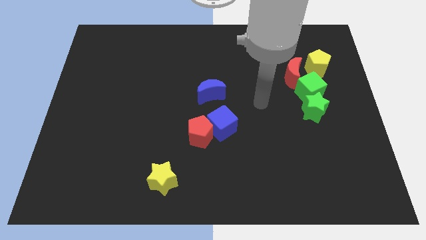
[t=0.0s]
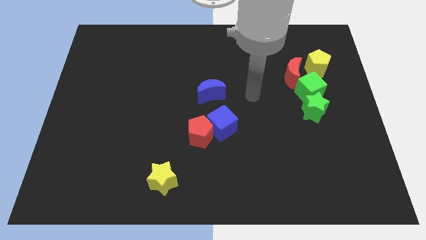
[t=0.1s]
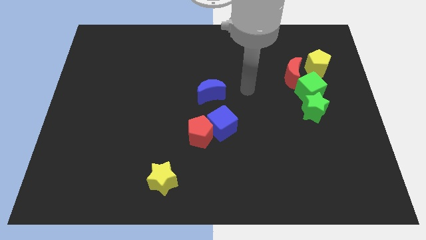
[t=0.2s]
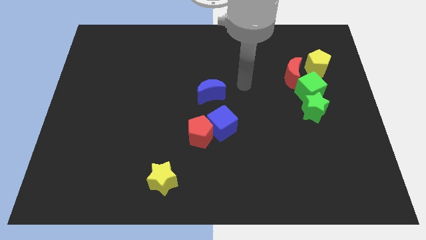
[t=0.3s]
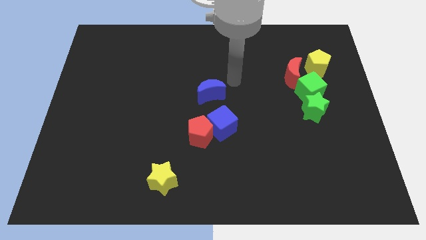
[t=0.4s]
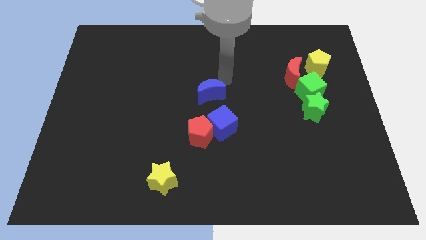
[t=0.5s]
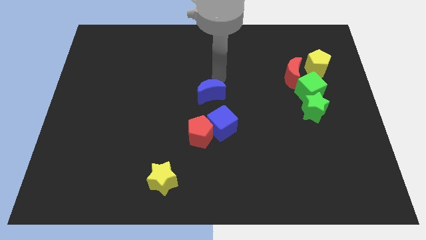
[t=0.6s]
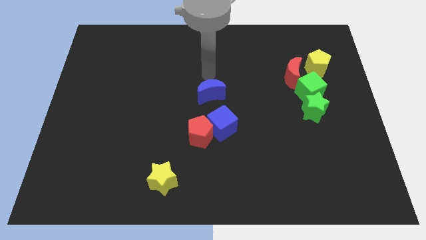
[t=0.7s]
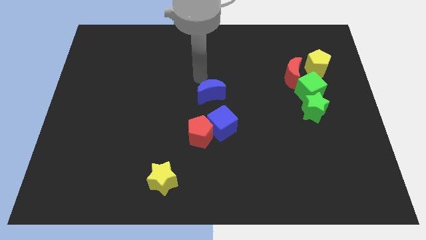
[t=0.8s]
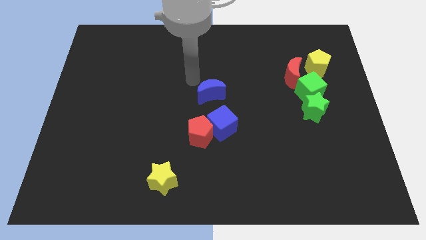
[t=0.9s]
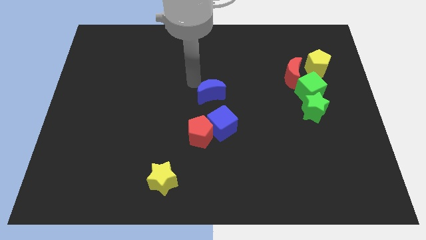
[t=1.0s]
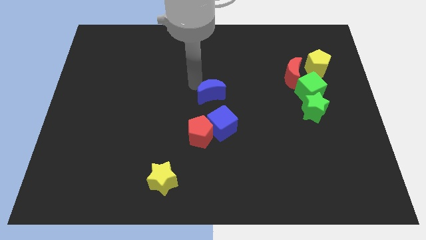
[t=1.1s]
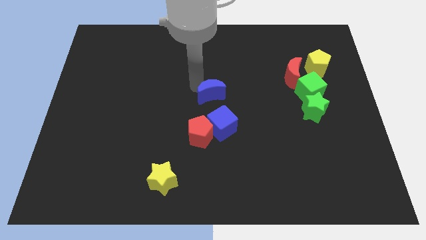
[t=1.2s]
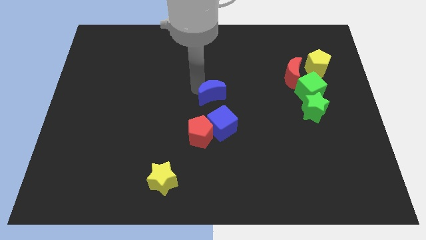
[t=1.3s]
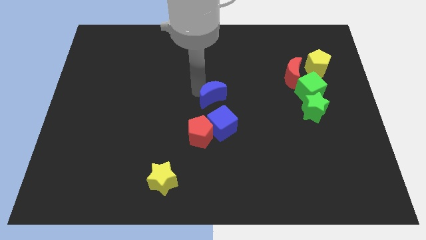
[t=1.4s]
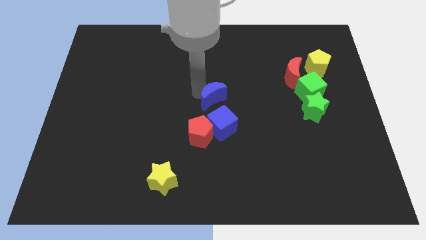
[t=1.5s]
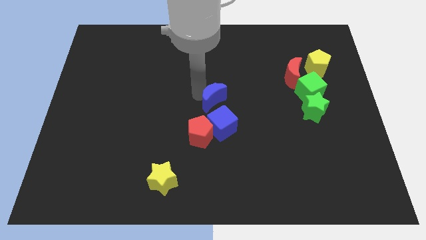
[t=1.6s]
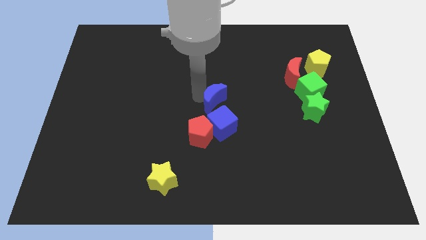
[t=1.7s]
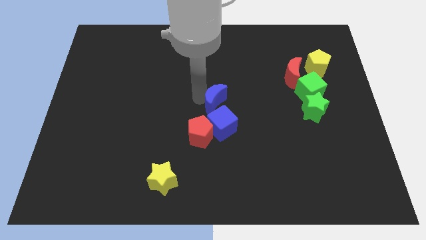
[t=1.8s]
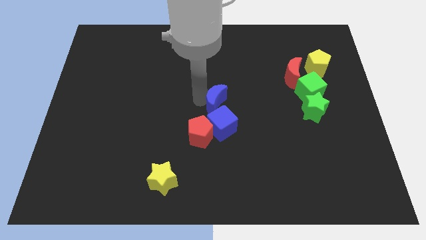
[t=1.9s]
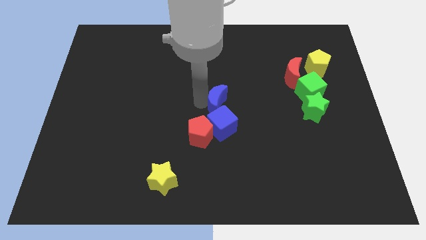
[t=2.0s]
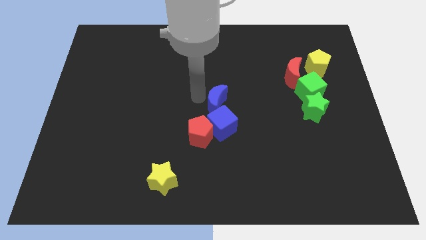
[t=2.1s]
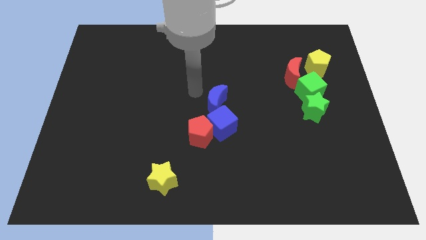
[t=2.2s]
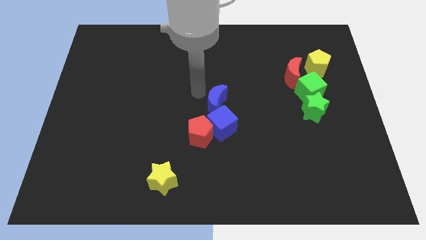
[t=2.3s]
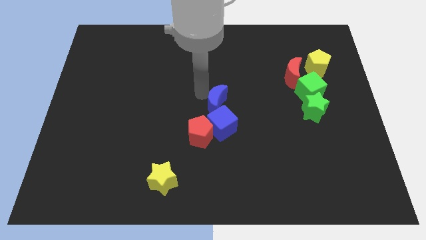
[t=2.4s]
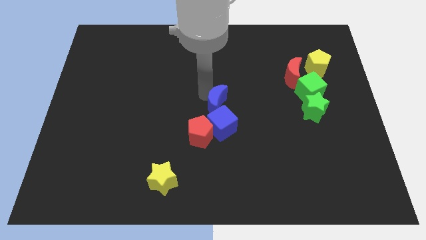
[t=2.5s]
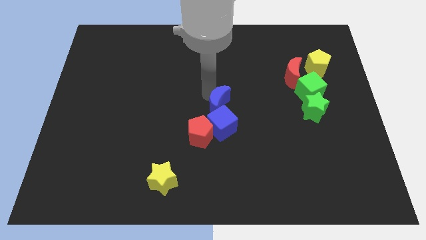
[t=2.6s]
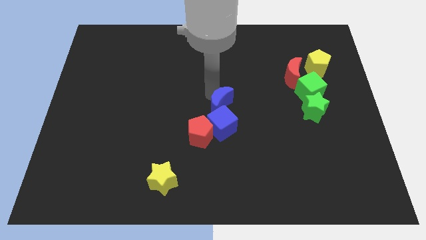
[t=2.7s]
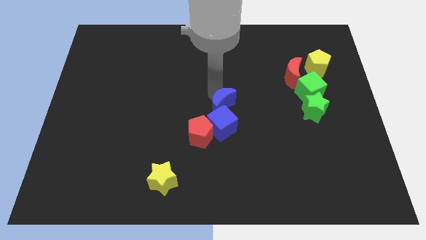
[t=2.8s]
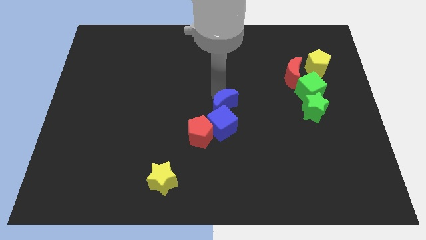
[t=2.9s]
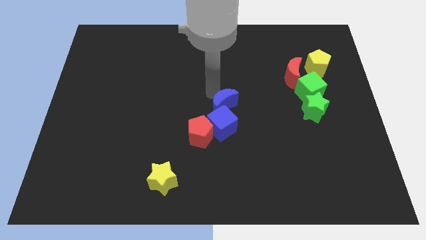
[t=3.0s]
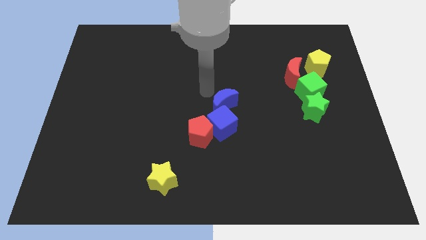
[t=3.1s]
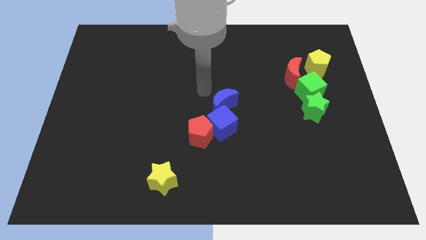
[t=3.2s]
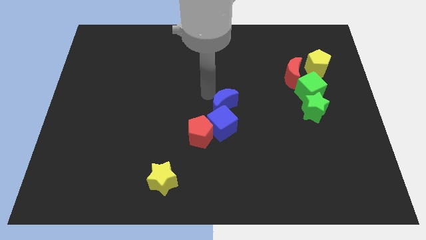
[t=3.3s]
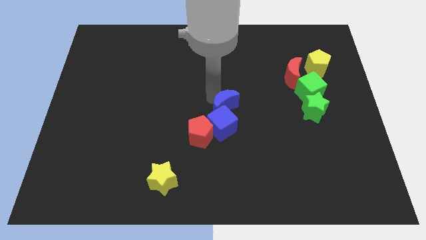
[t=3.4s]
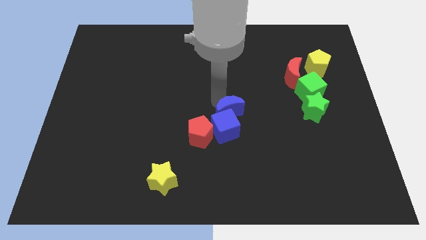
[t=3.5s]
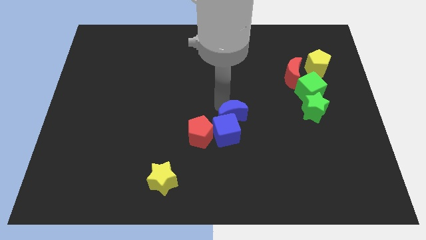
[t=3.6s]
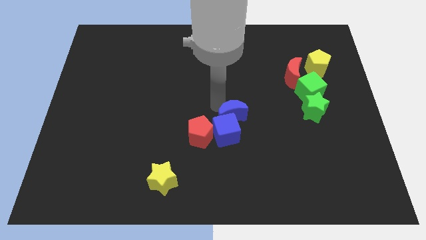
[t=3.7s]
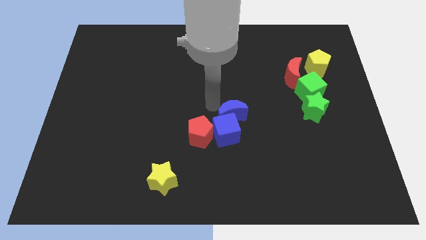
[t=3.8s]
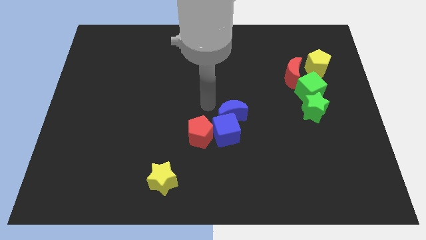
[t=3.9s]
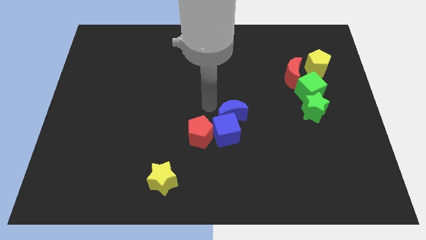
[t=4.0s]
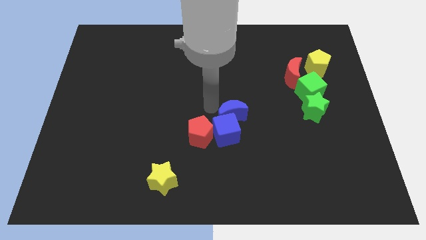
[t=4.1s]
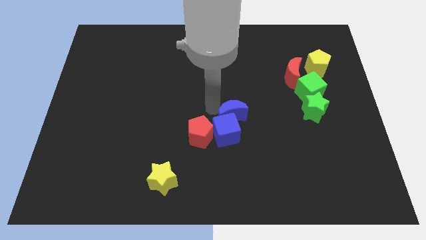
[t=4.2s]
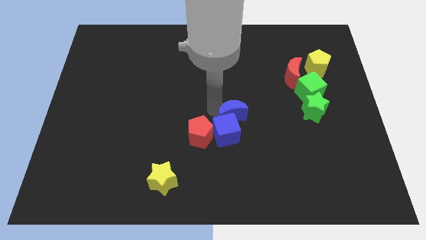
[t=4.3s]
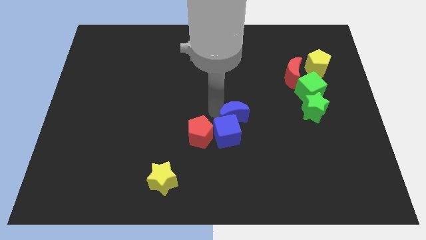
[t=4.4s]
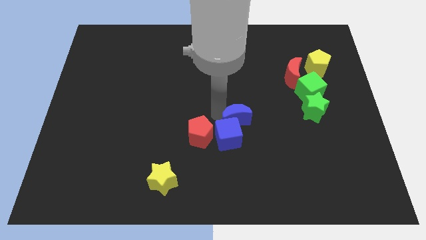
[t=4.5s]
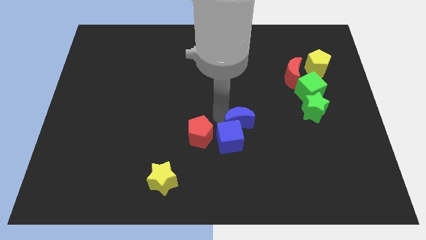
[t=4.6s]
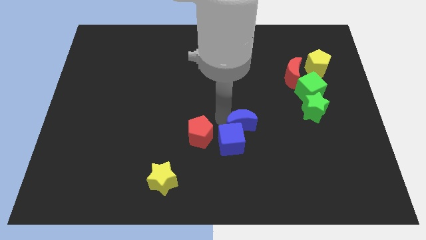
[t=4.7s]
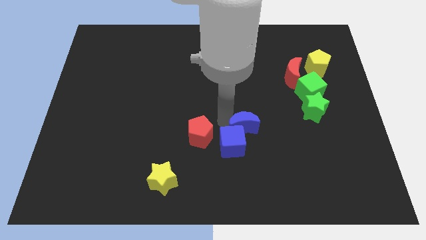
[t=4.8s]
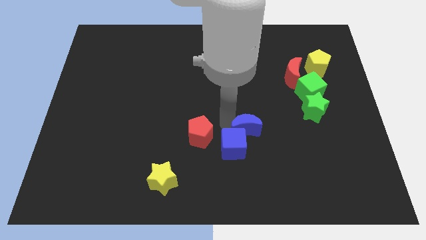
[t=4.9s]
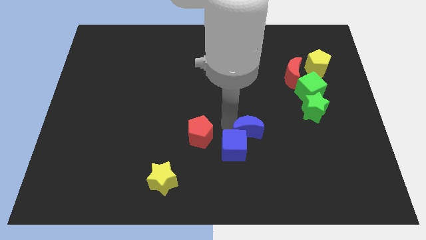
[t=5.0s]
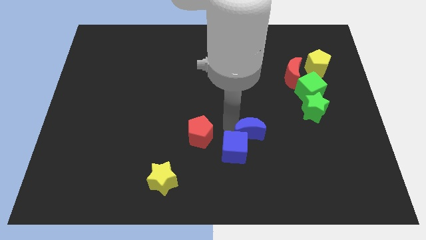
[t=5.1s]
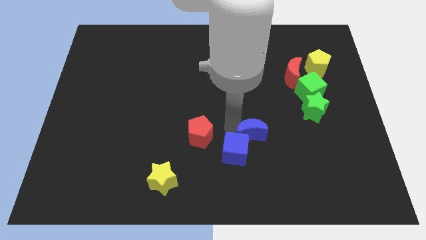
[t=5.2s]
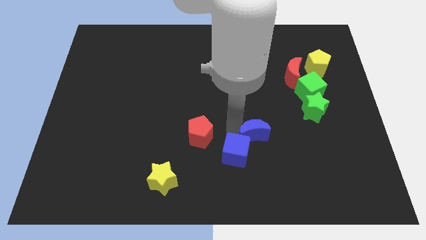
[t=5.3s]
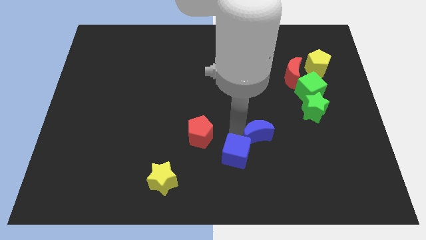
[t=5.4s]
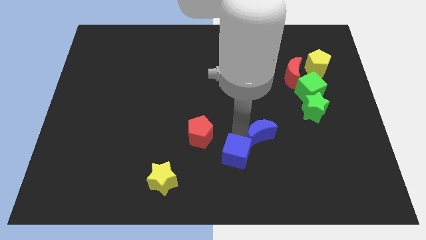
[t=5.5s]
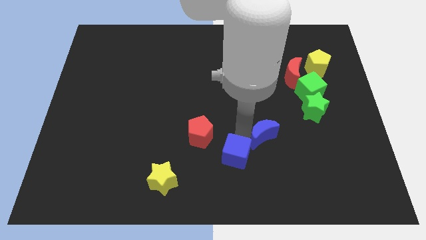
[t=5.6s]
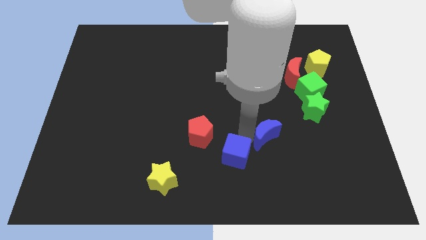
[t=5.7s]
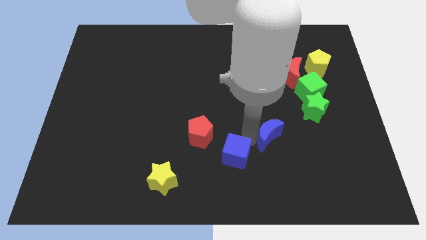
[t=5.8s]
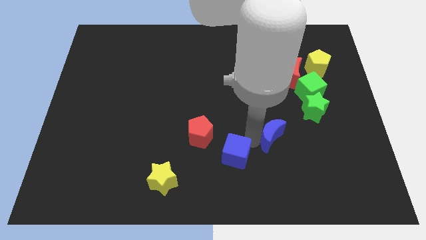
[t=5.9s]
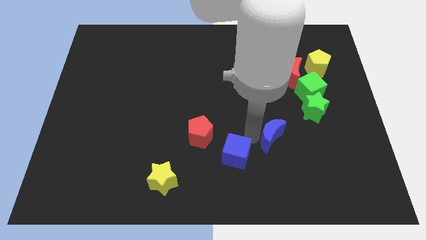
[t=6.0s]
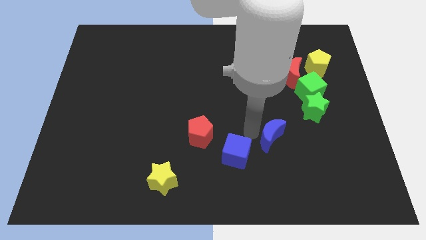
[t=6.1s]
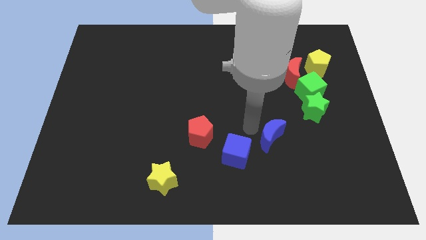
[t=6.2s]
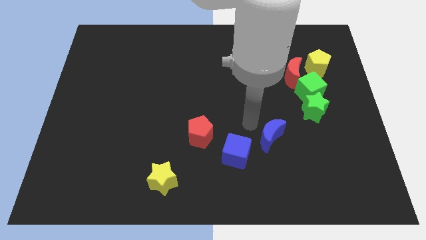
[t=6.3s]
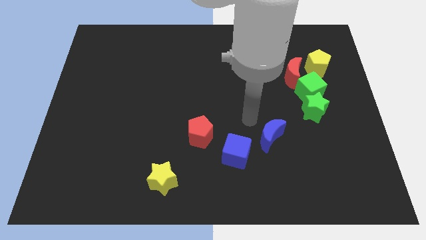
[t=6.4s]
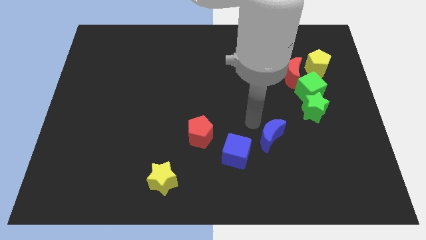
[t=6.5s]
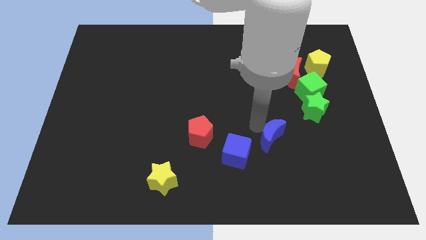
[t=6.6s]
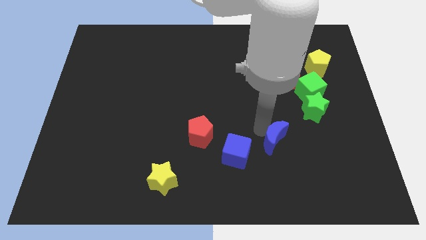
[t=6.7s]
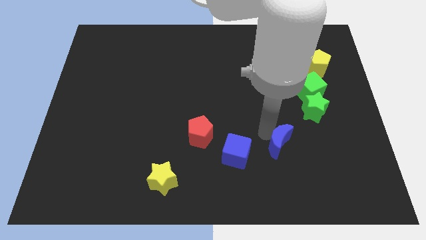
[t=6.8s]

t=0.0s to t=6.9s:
slide the blue moon downwards and to the right diagonally

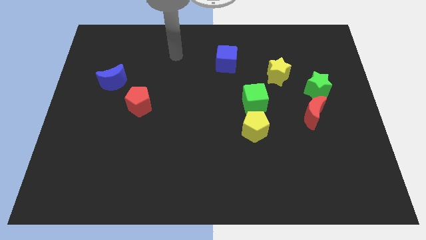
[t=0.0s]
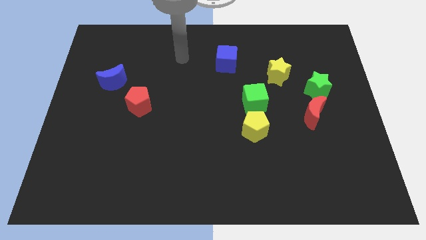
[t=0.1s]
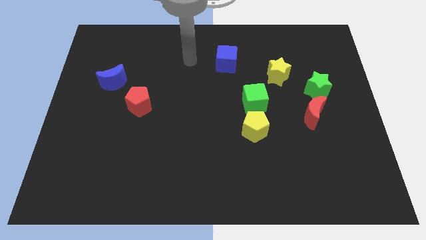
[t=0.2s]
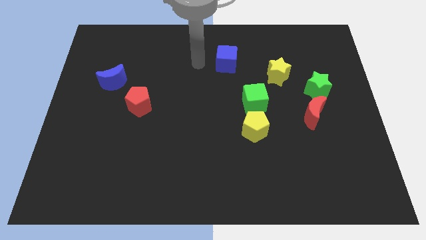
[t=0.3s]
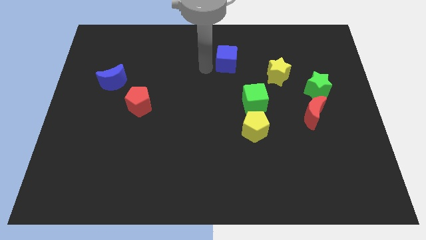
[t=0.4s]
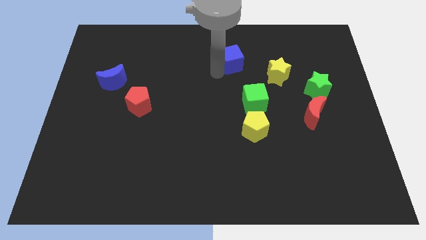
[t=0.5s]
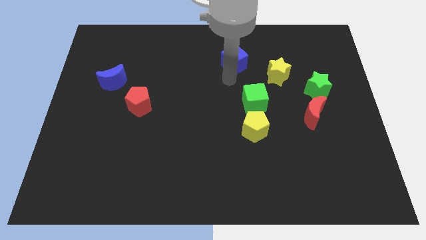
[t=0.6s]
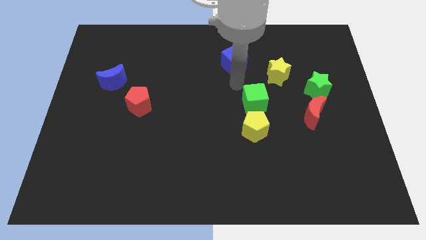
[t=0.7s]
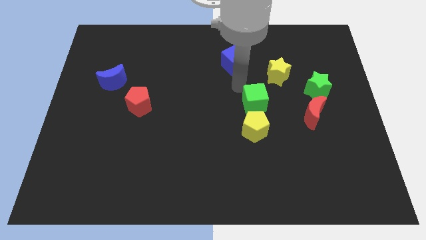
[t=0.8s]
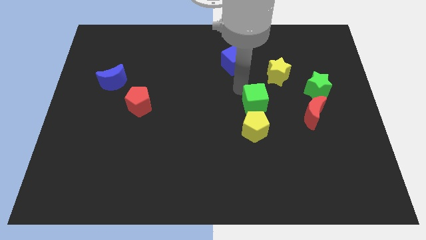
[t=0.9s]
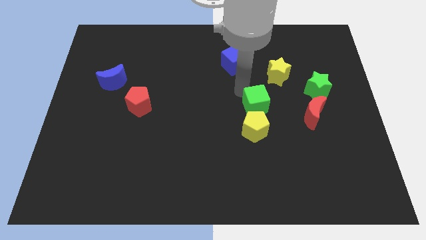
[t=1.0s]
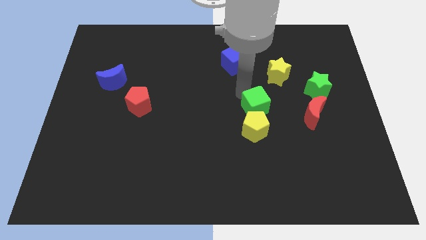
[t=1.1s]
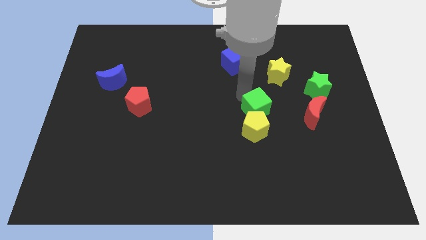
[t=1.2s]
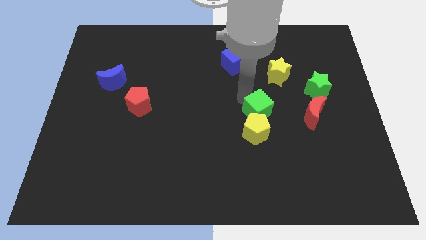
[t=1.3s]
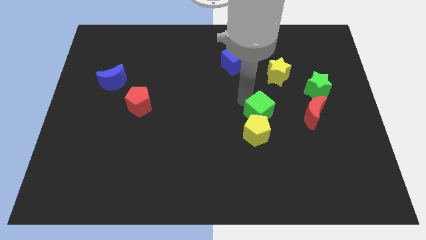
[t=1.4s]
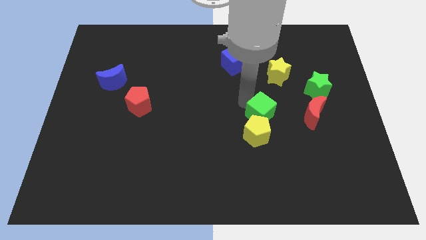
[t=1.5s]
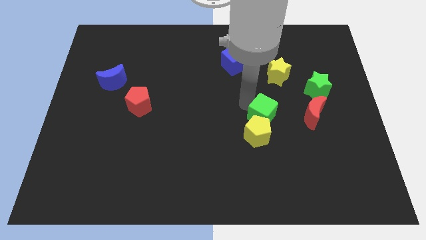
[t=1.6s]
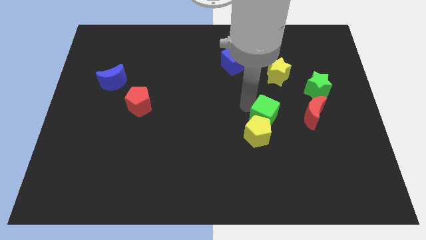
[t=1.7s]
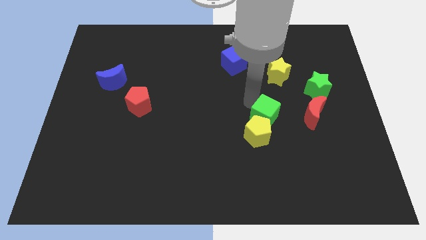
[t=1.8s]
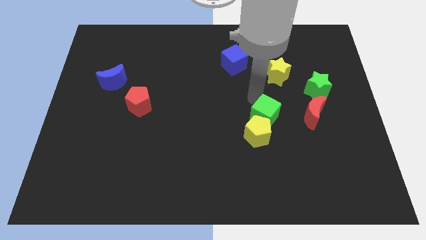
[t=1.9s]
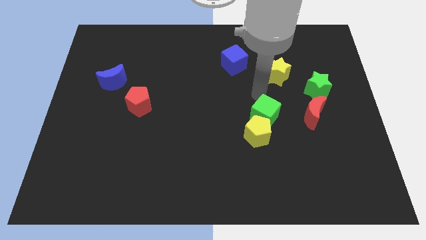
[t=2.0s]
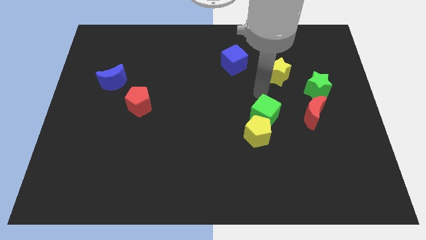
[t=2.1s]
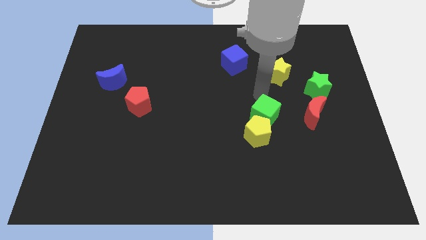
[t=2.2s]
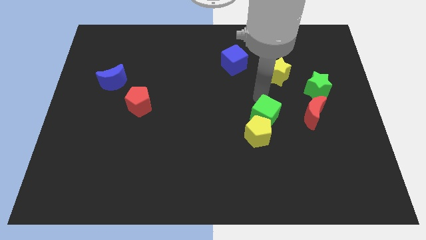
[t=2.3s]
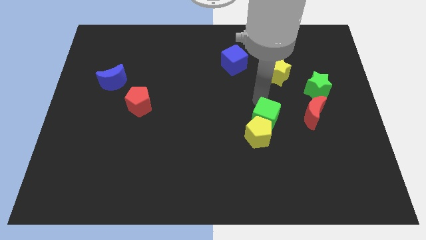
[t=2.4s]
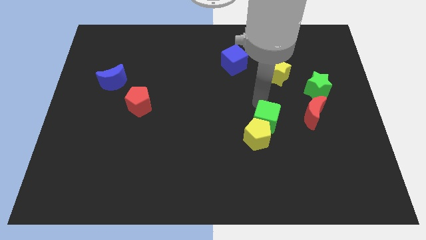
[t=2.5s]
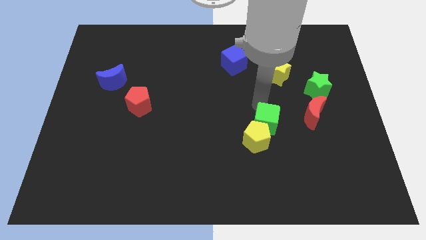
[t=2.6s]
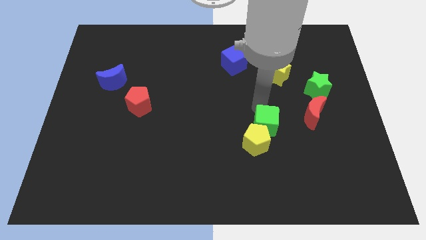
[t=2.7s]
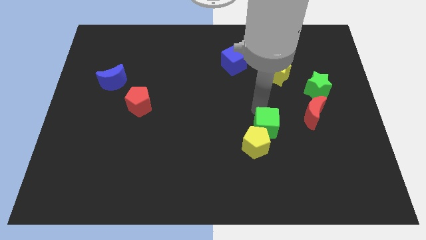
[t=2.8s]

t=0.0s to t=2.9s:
move the green cube a bit down
